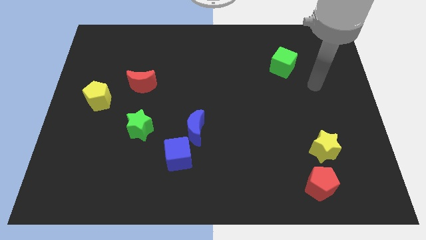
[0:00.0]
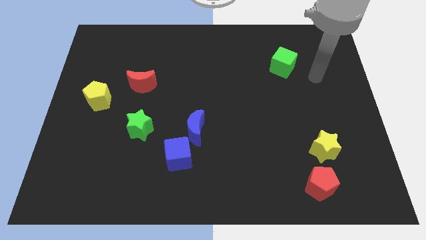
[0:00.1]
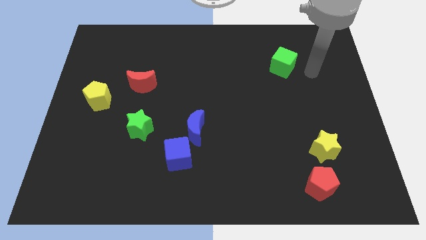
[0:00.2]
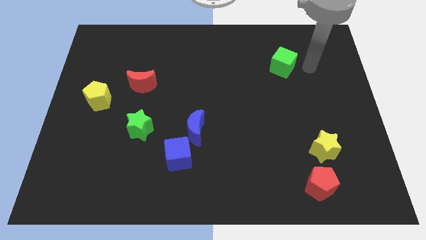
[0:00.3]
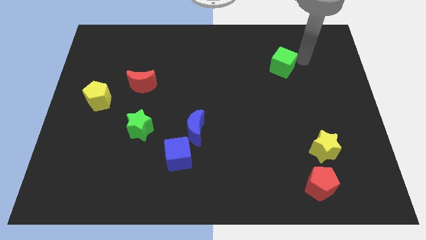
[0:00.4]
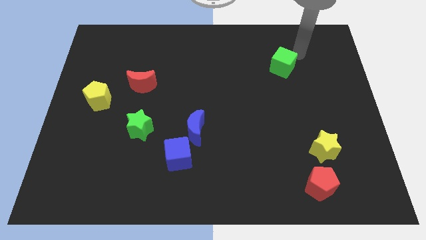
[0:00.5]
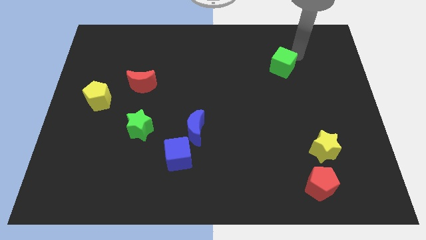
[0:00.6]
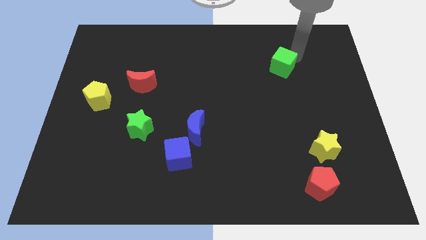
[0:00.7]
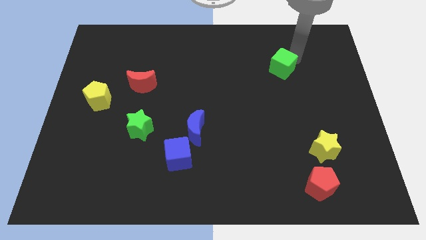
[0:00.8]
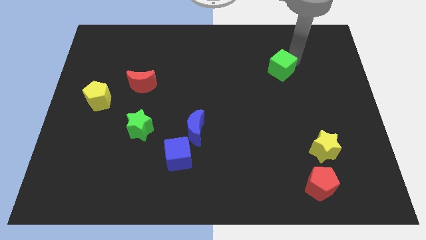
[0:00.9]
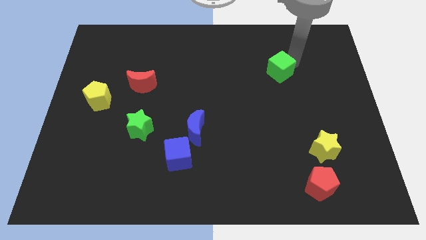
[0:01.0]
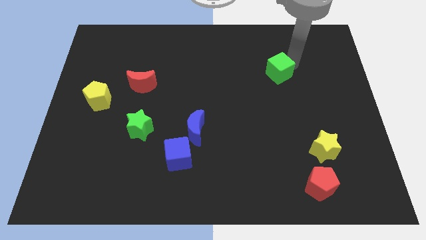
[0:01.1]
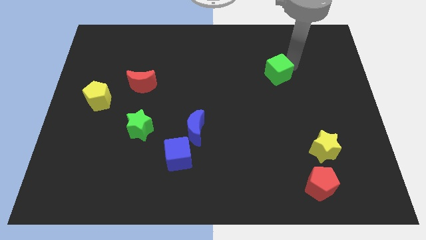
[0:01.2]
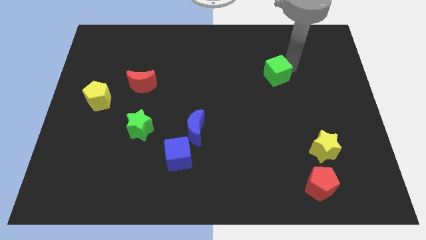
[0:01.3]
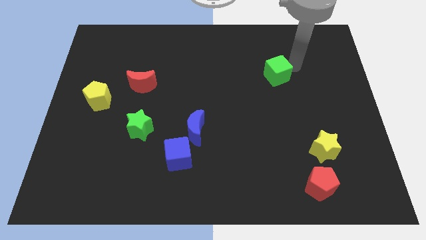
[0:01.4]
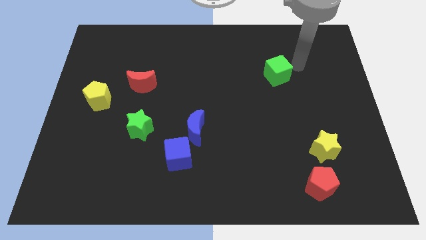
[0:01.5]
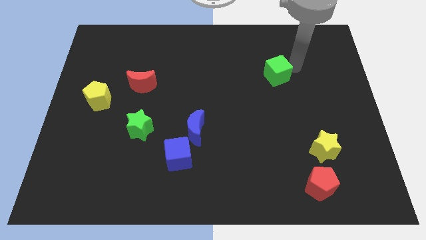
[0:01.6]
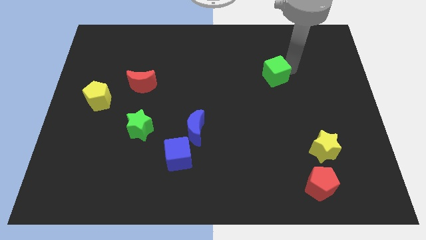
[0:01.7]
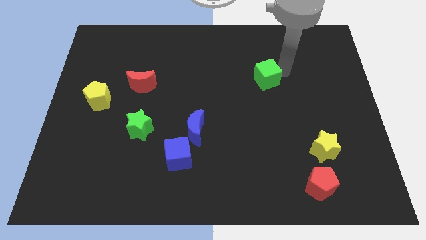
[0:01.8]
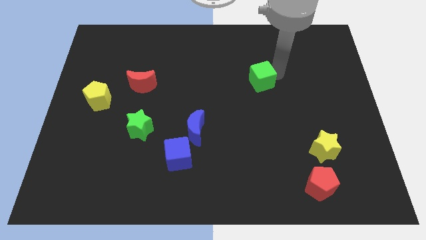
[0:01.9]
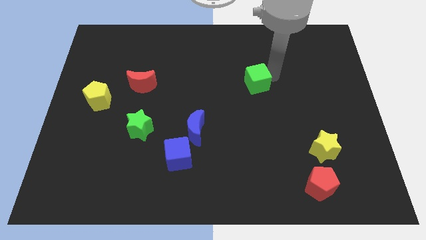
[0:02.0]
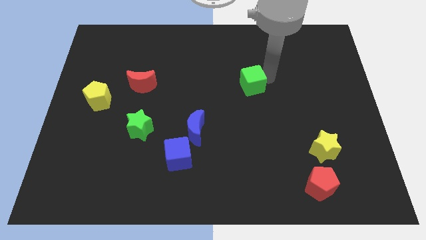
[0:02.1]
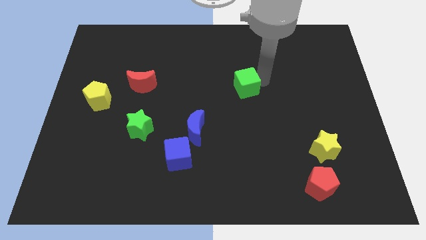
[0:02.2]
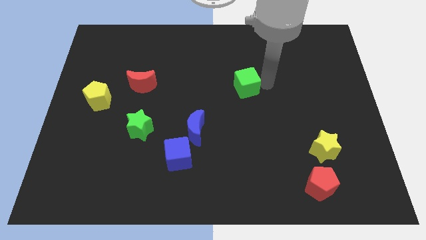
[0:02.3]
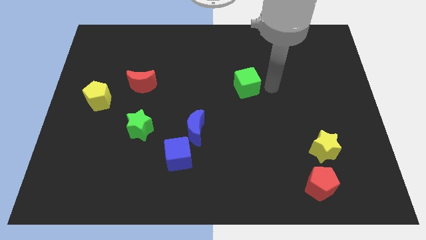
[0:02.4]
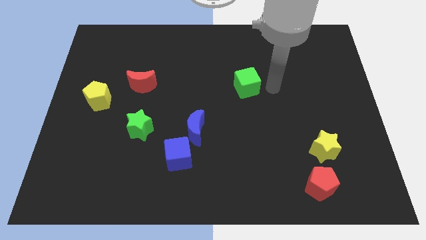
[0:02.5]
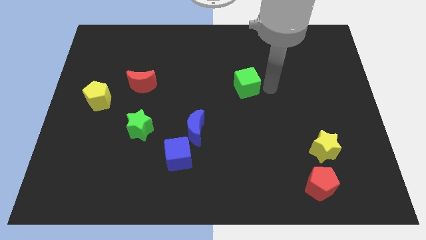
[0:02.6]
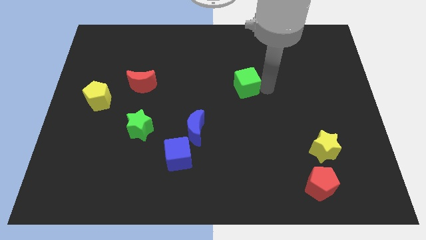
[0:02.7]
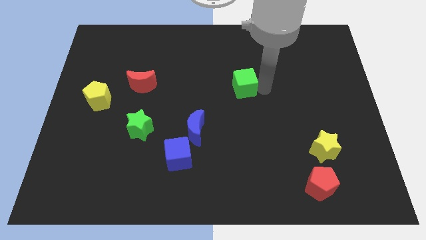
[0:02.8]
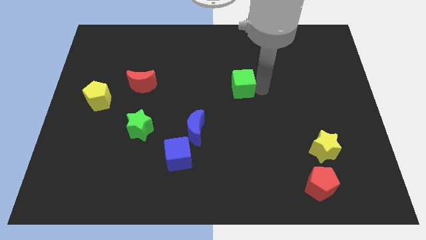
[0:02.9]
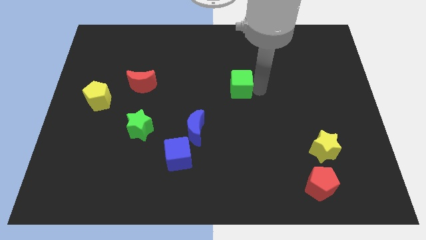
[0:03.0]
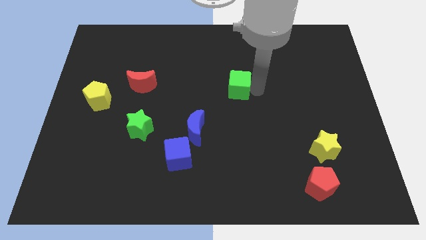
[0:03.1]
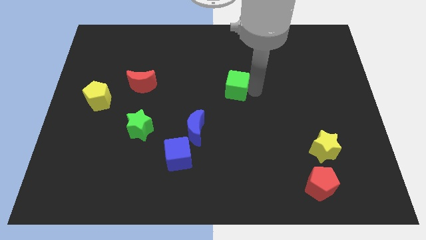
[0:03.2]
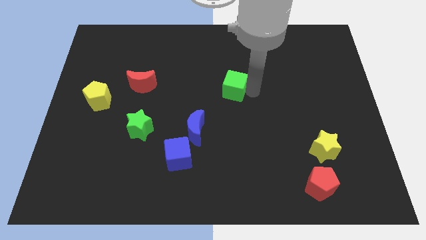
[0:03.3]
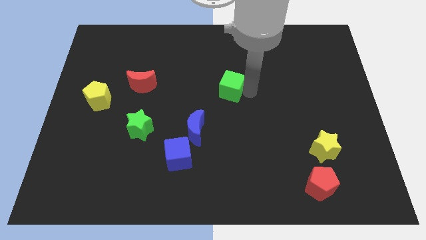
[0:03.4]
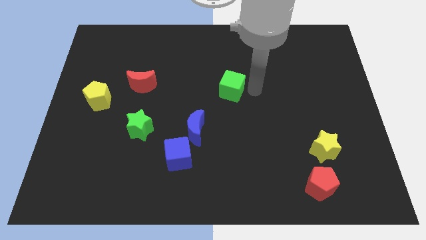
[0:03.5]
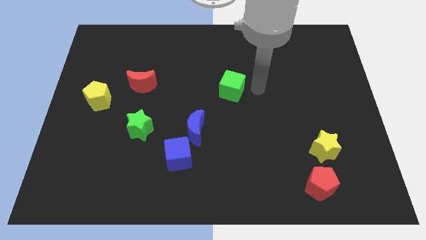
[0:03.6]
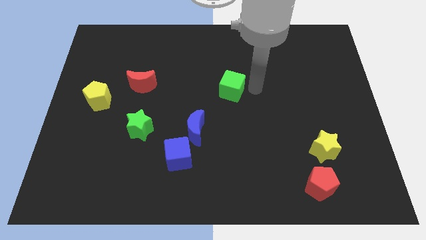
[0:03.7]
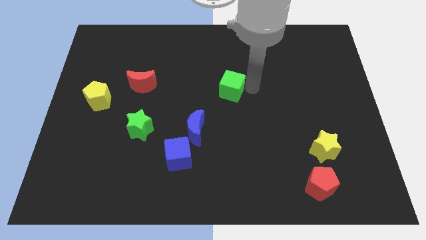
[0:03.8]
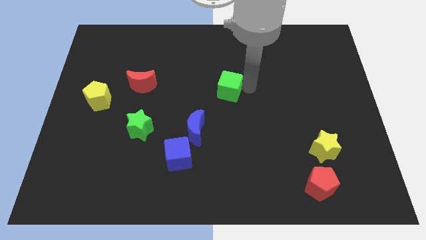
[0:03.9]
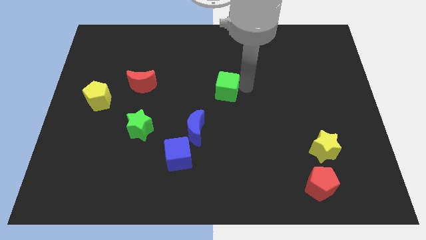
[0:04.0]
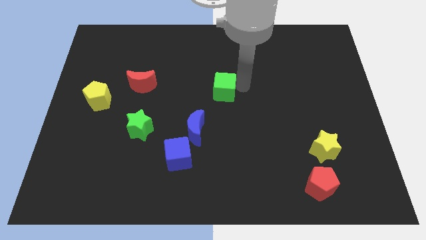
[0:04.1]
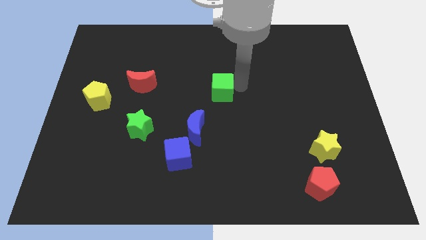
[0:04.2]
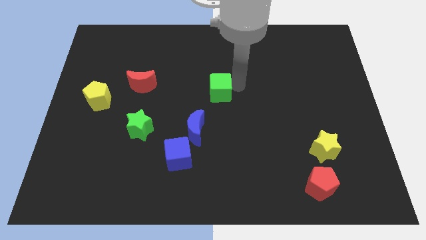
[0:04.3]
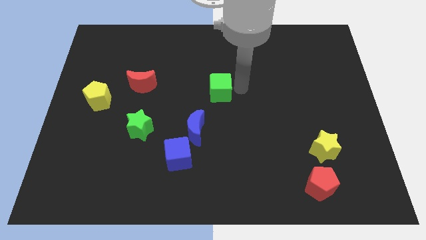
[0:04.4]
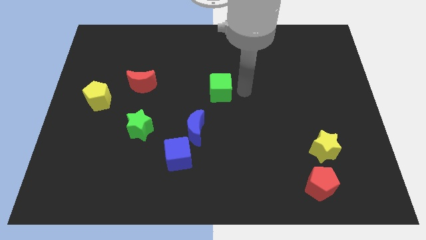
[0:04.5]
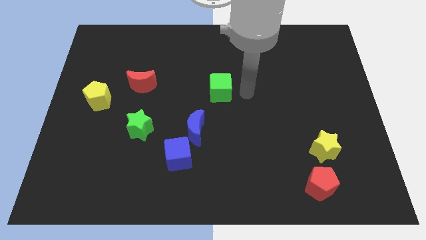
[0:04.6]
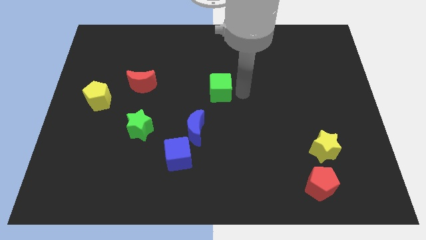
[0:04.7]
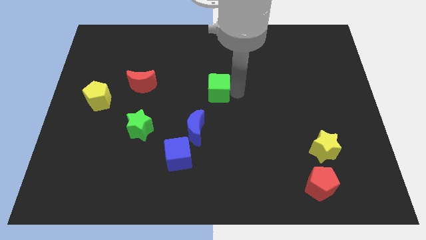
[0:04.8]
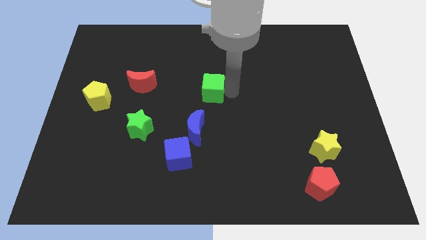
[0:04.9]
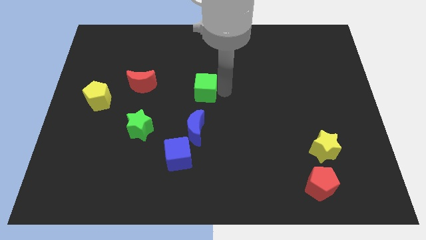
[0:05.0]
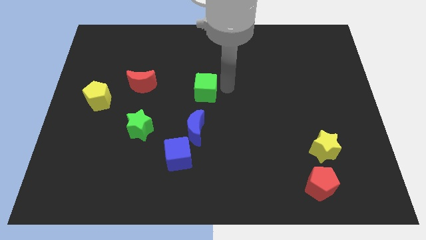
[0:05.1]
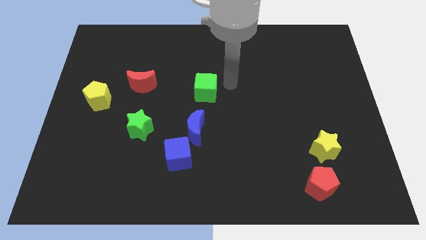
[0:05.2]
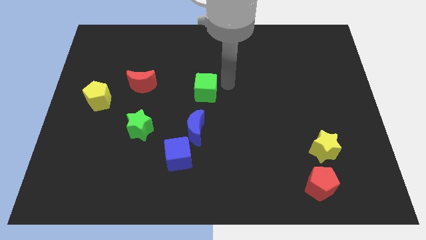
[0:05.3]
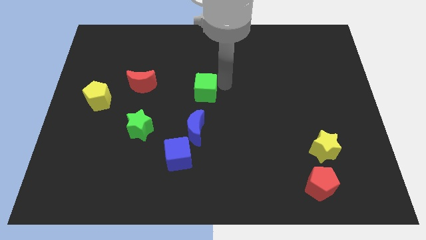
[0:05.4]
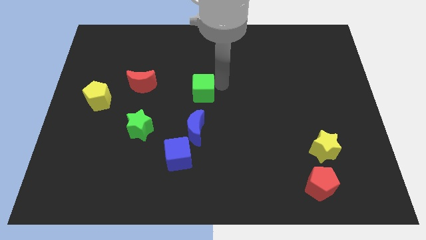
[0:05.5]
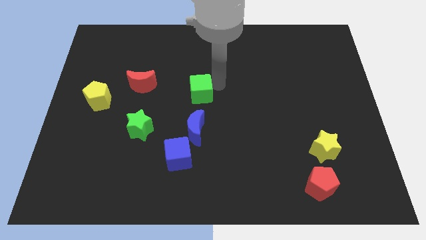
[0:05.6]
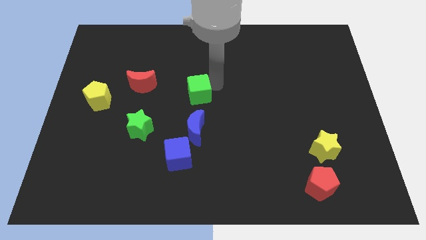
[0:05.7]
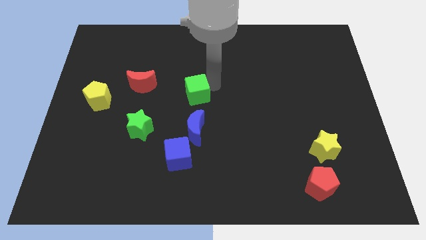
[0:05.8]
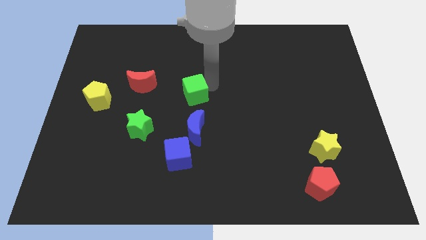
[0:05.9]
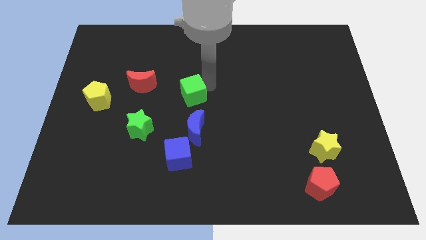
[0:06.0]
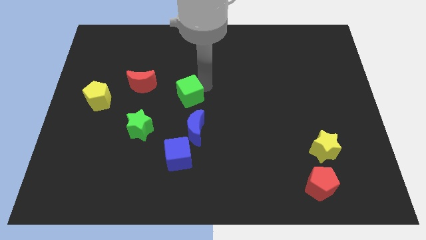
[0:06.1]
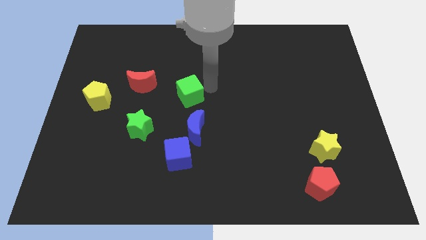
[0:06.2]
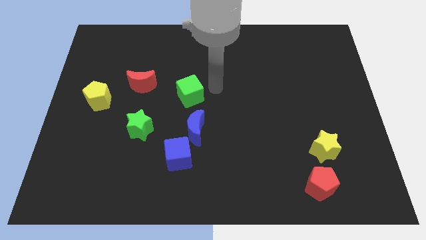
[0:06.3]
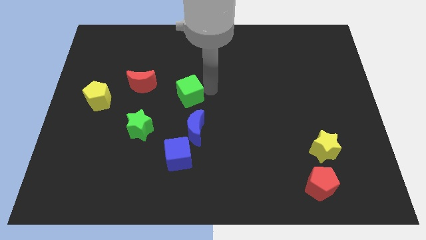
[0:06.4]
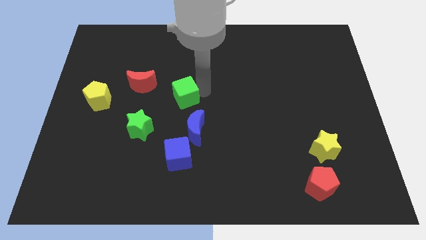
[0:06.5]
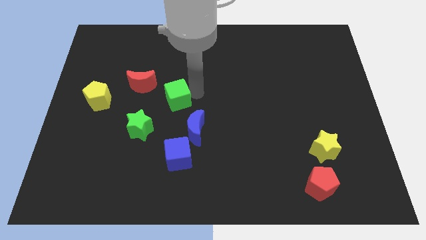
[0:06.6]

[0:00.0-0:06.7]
put the green cube diagonally down and to the right of the red moon

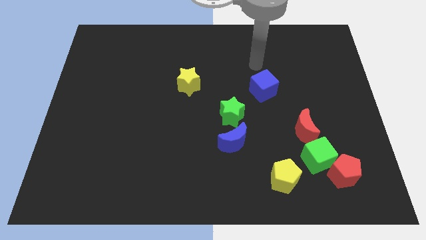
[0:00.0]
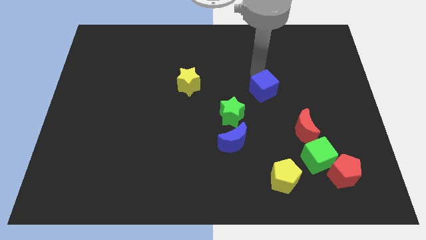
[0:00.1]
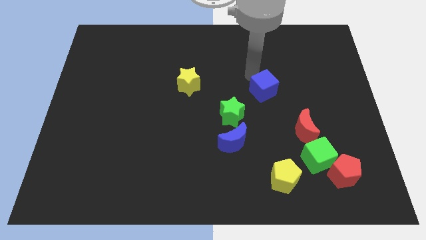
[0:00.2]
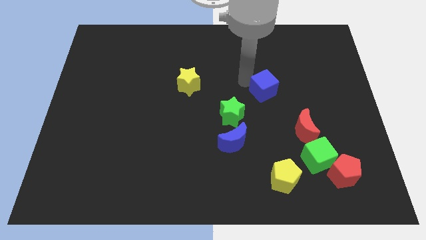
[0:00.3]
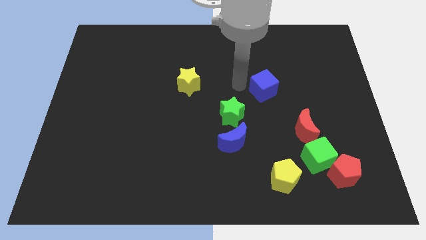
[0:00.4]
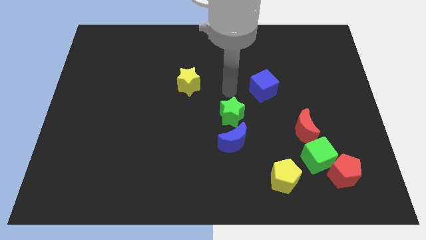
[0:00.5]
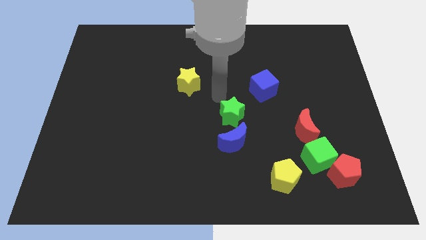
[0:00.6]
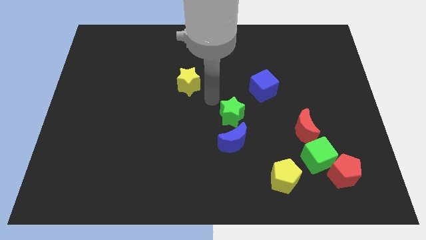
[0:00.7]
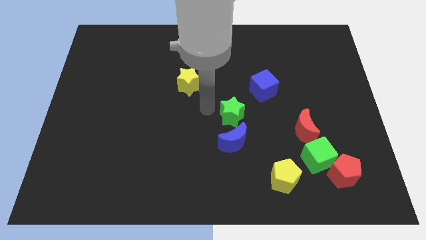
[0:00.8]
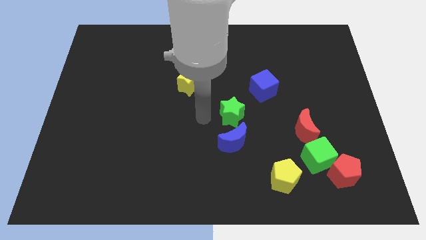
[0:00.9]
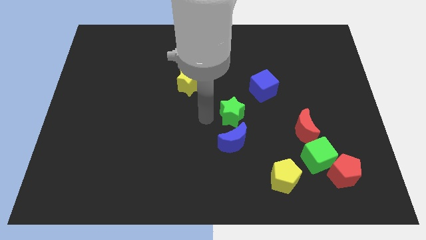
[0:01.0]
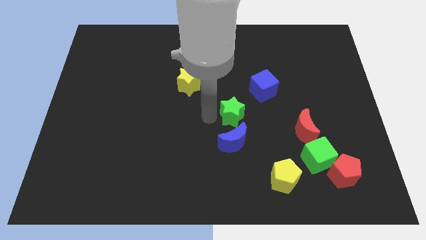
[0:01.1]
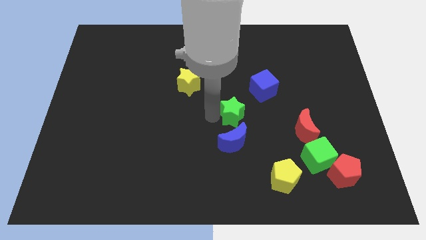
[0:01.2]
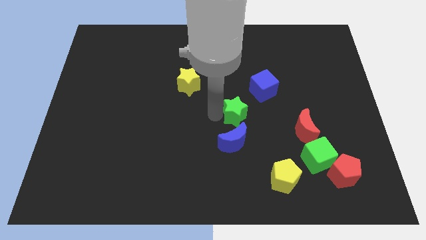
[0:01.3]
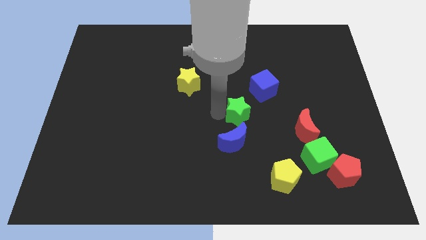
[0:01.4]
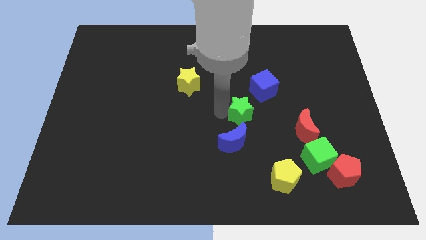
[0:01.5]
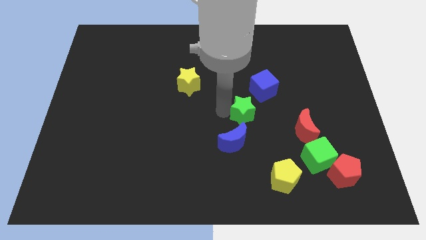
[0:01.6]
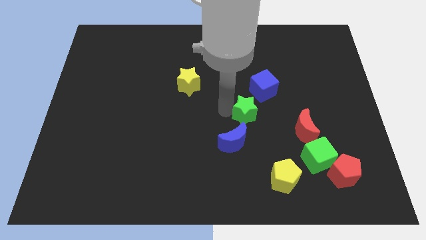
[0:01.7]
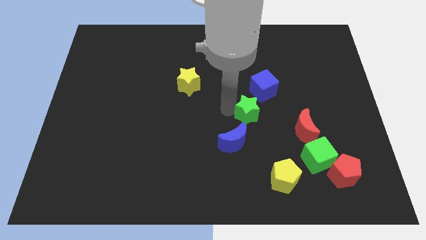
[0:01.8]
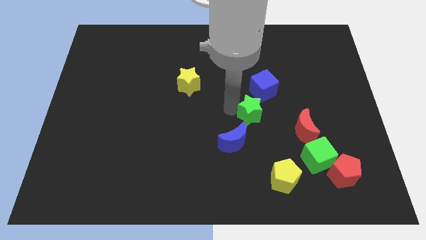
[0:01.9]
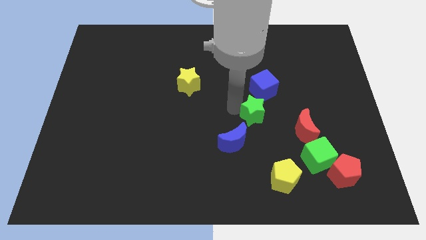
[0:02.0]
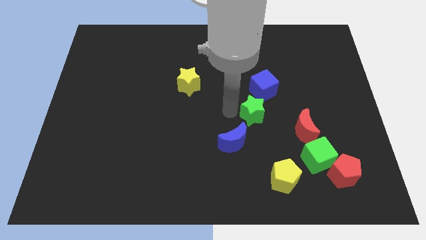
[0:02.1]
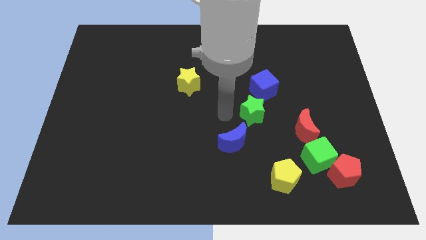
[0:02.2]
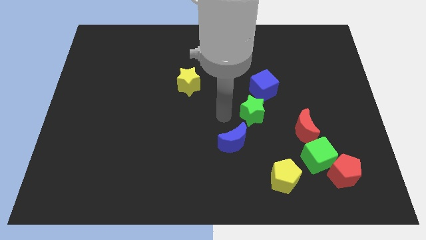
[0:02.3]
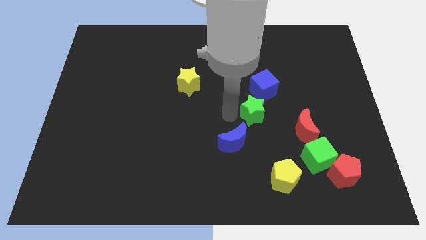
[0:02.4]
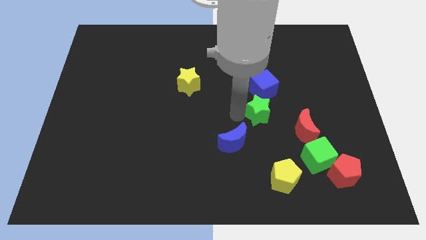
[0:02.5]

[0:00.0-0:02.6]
slide the green star diagonally up and to the left of the red moon
